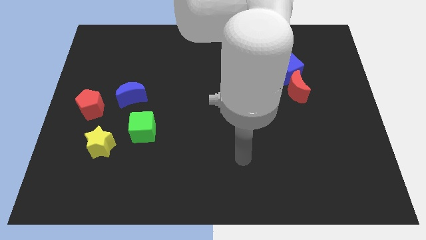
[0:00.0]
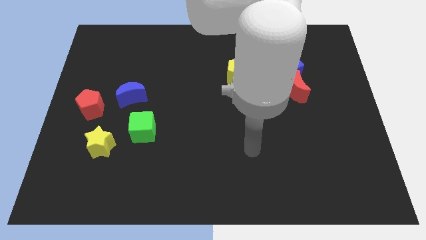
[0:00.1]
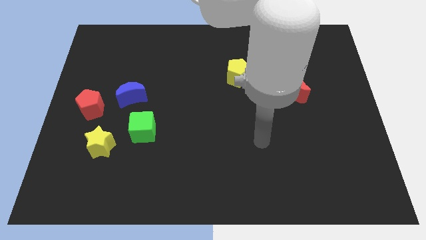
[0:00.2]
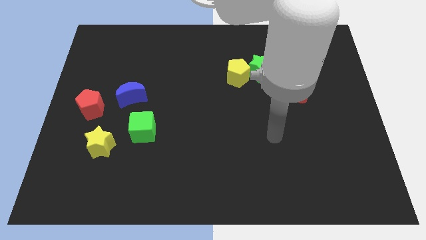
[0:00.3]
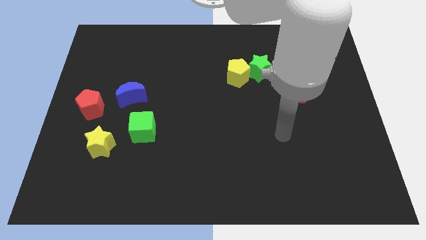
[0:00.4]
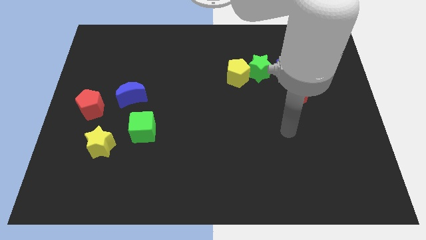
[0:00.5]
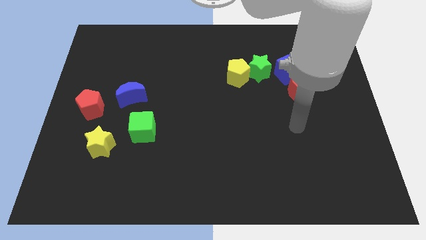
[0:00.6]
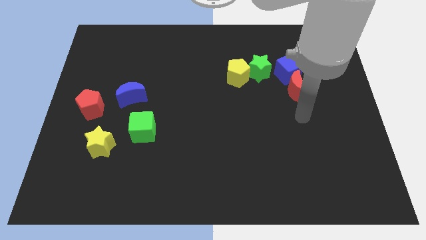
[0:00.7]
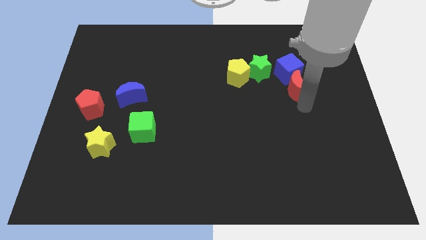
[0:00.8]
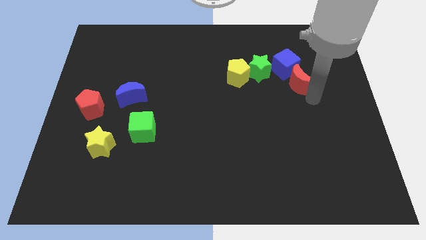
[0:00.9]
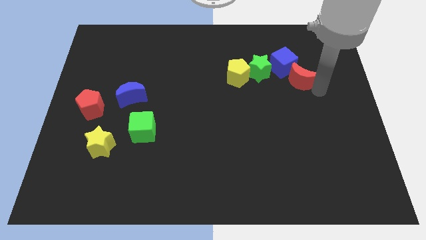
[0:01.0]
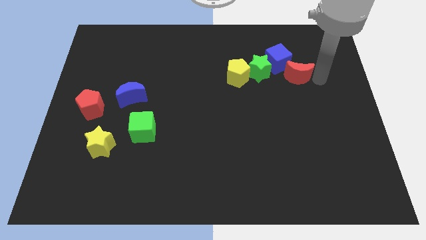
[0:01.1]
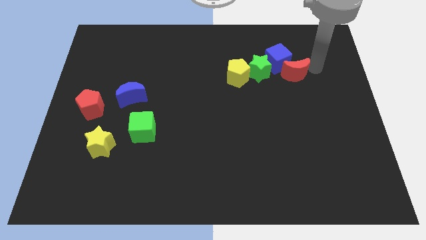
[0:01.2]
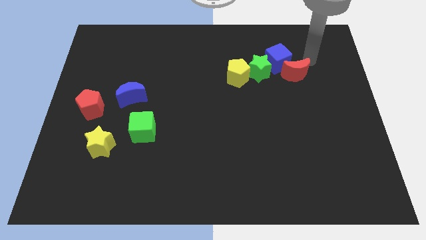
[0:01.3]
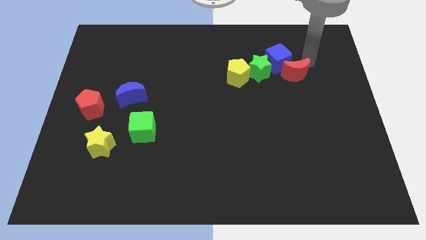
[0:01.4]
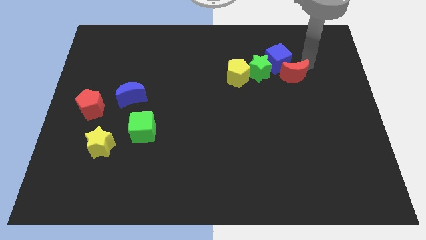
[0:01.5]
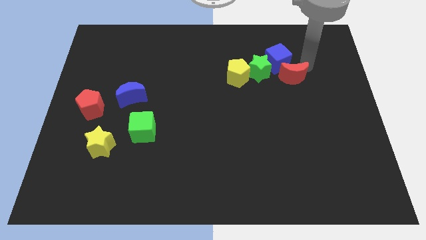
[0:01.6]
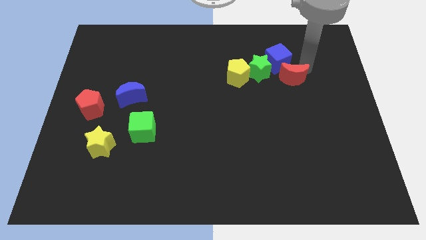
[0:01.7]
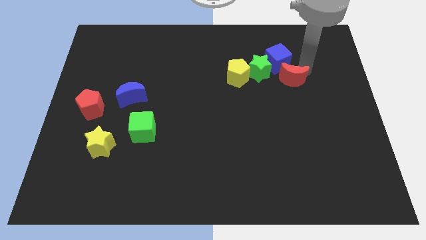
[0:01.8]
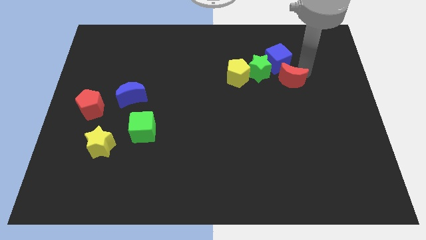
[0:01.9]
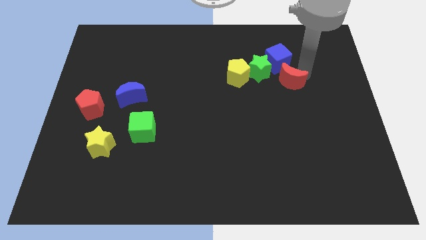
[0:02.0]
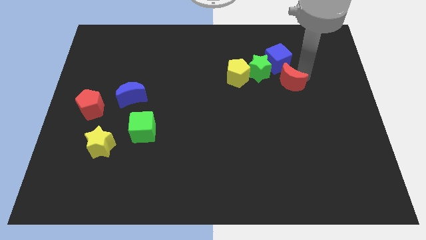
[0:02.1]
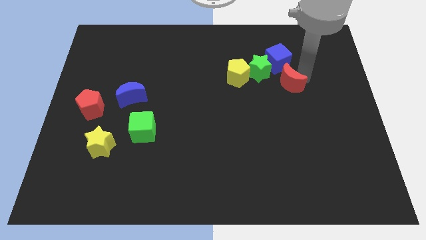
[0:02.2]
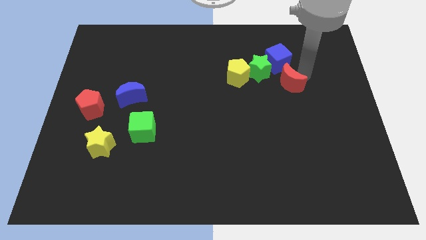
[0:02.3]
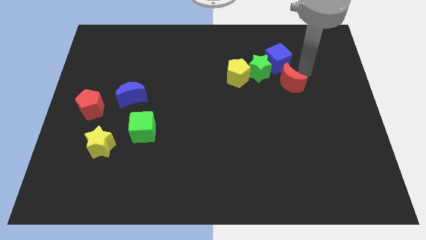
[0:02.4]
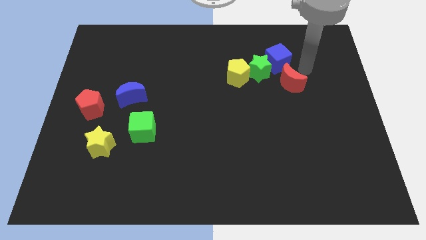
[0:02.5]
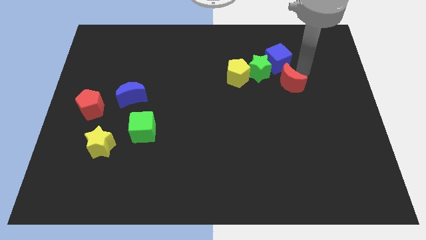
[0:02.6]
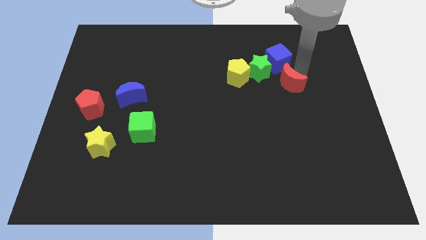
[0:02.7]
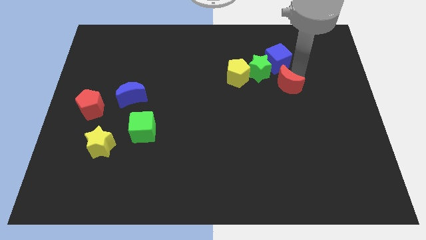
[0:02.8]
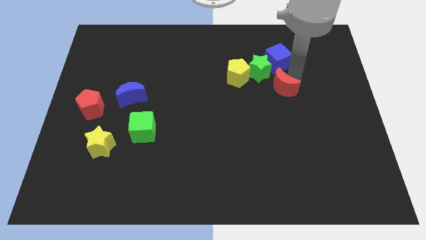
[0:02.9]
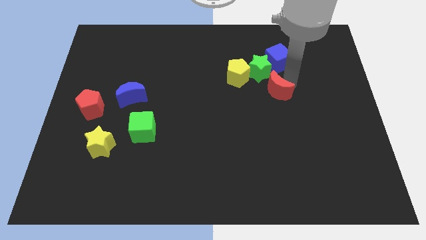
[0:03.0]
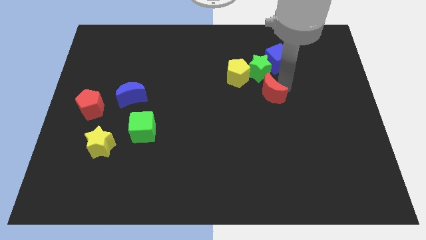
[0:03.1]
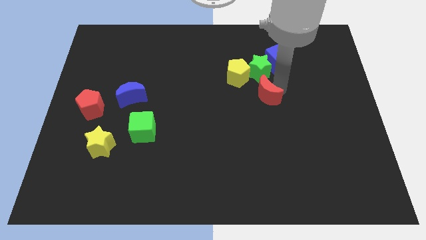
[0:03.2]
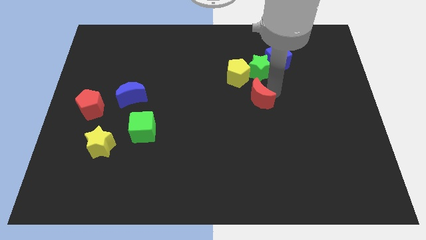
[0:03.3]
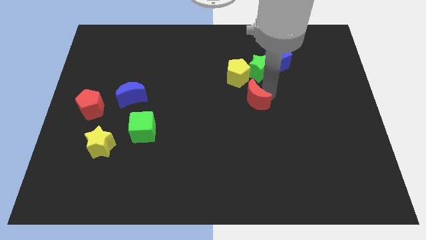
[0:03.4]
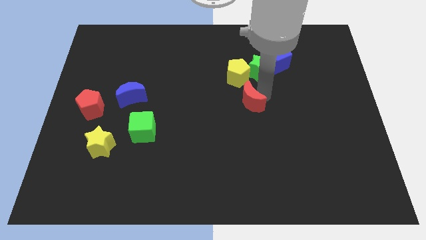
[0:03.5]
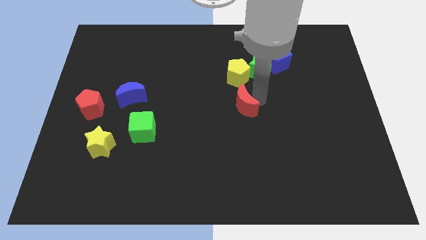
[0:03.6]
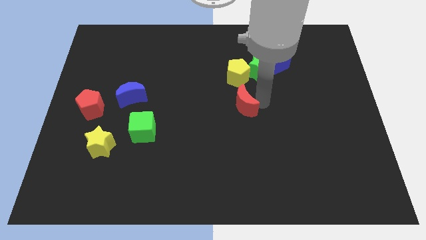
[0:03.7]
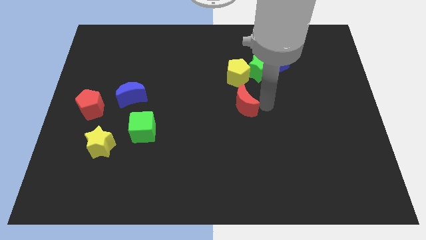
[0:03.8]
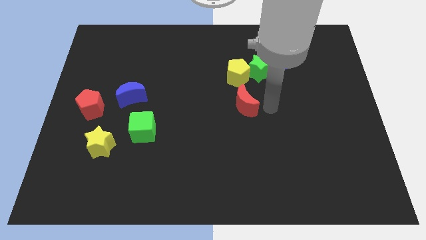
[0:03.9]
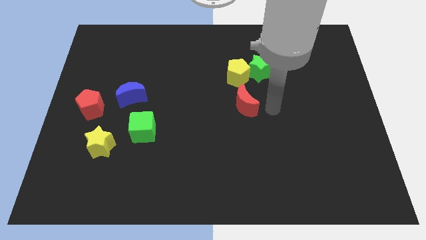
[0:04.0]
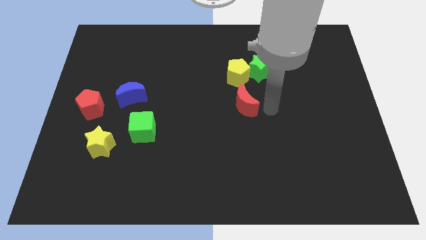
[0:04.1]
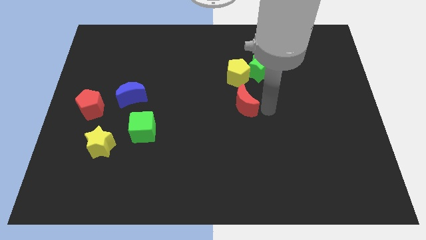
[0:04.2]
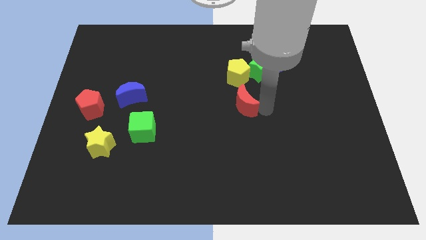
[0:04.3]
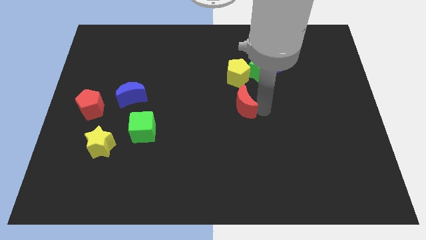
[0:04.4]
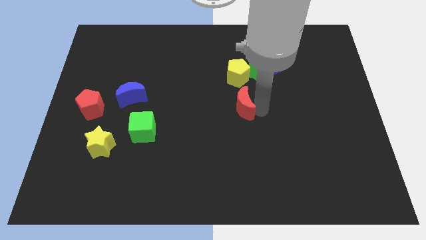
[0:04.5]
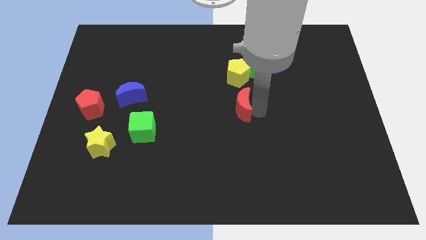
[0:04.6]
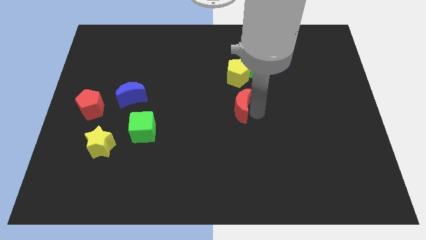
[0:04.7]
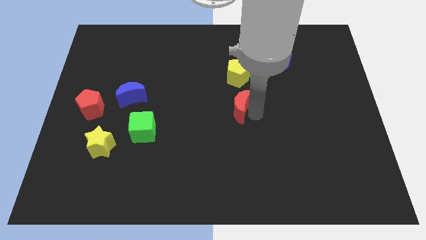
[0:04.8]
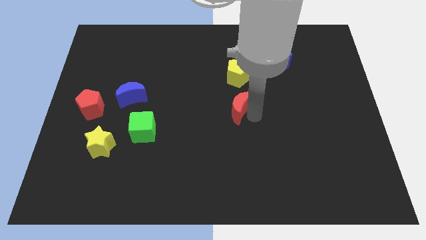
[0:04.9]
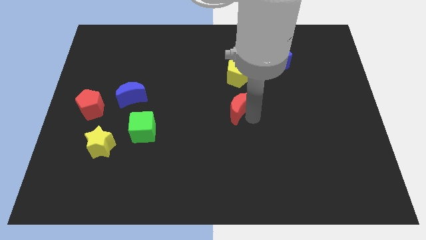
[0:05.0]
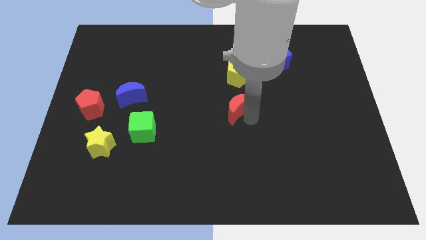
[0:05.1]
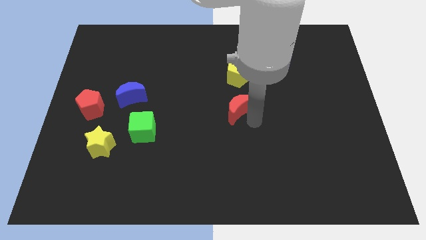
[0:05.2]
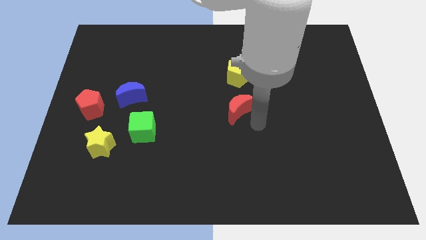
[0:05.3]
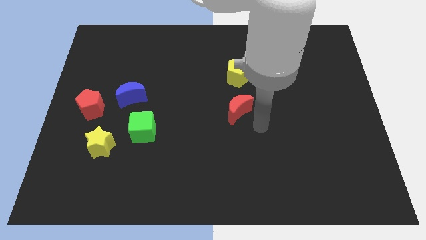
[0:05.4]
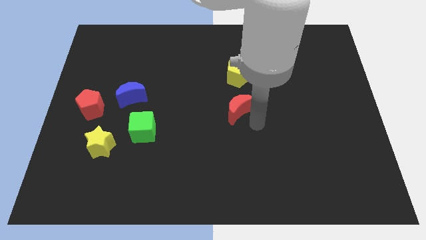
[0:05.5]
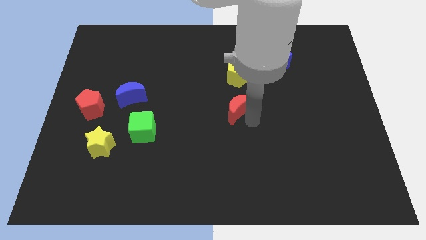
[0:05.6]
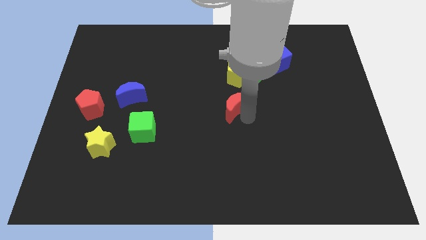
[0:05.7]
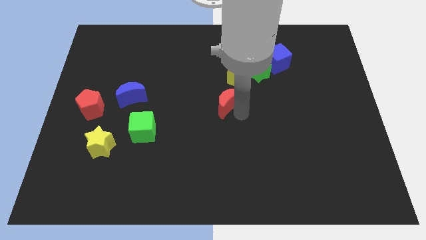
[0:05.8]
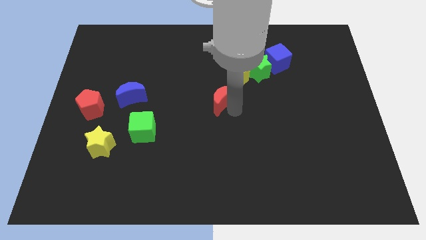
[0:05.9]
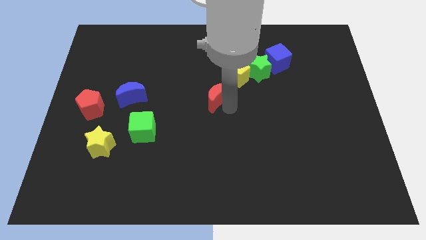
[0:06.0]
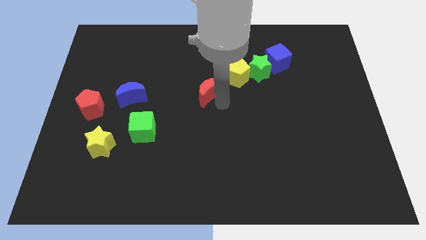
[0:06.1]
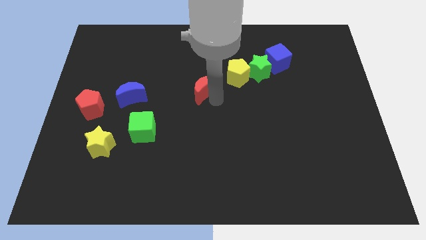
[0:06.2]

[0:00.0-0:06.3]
move the red moon left of the yellow pentagon

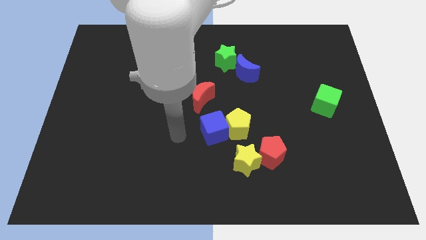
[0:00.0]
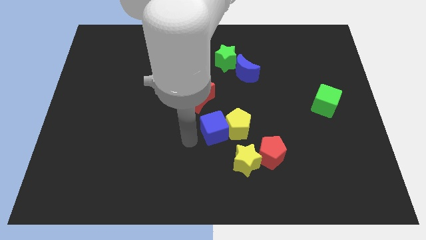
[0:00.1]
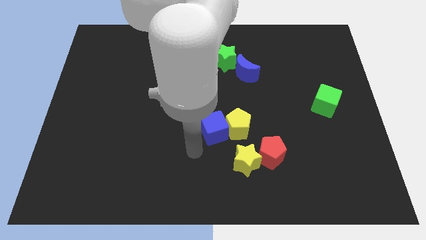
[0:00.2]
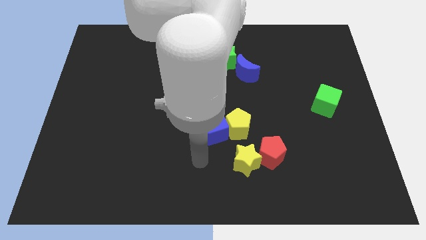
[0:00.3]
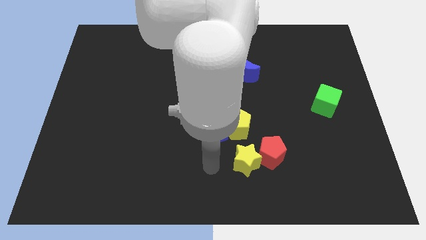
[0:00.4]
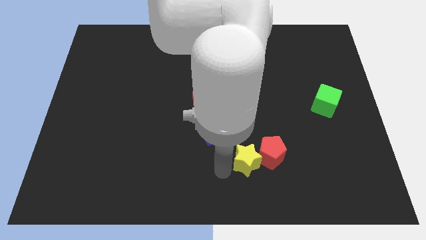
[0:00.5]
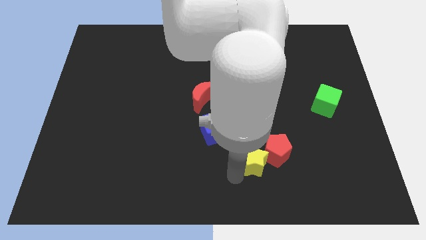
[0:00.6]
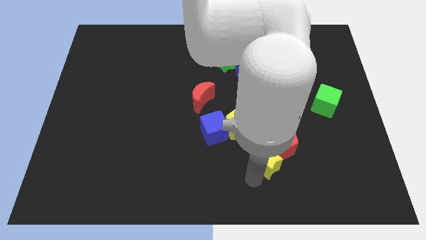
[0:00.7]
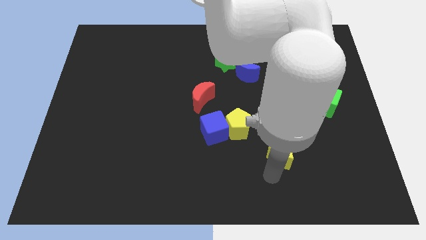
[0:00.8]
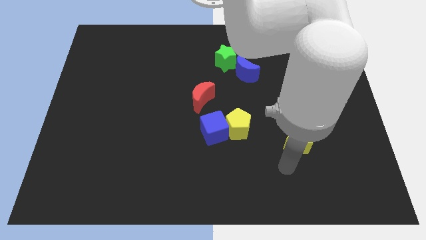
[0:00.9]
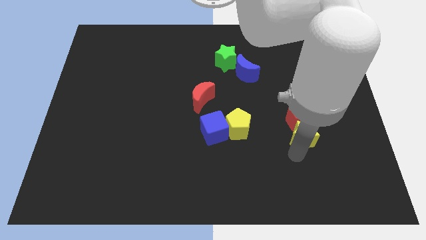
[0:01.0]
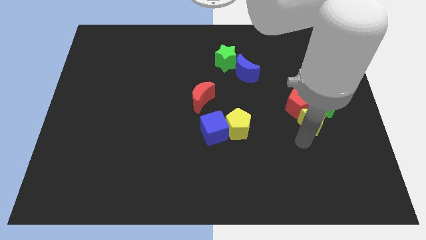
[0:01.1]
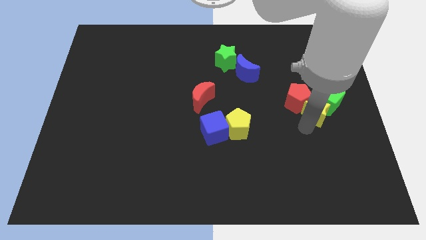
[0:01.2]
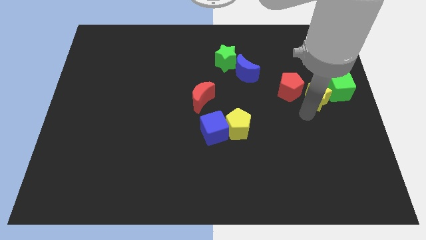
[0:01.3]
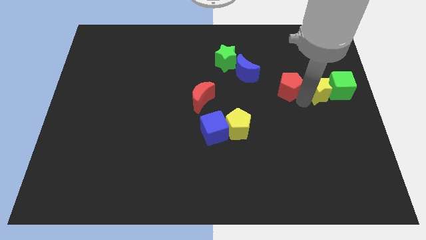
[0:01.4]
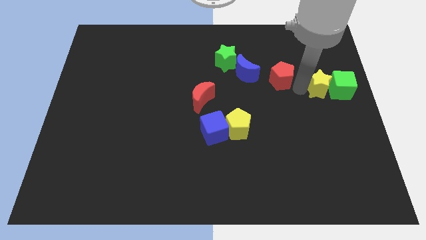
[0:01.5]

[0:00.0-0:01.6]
put the red pentagon to the right side of the blue moon

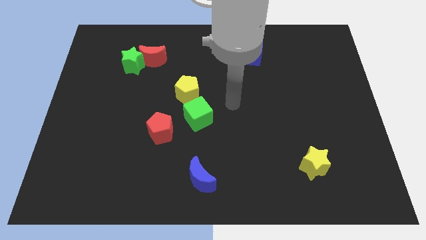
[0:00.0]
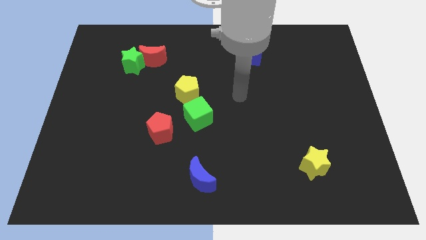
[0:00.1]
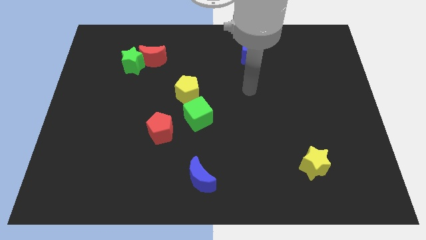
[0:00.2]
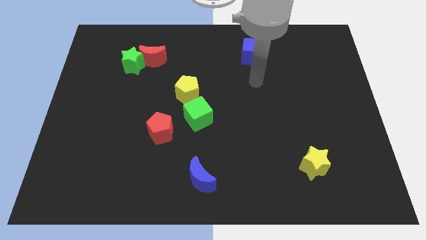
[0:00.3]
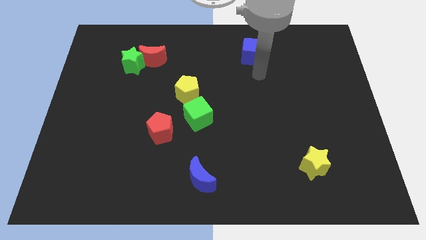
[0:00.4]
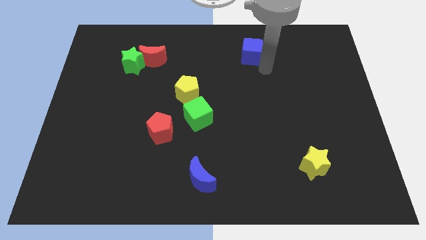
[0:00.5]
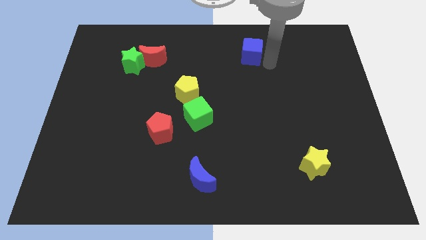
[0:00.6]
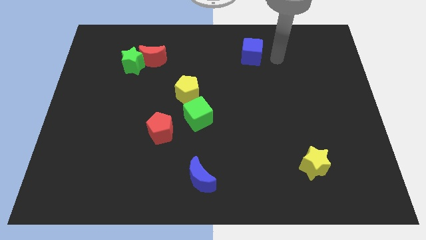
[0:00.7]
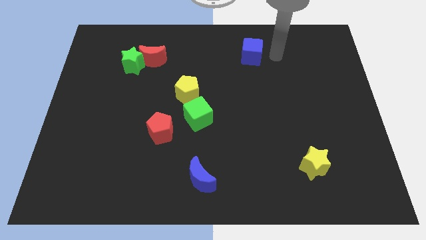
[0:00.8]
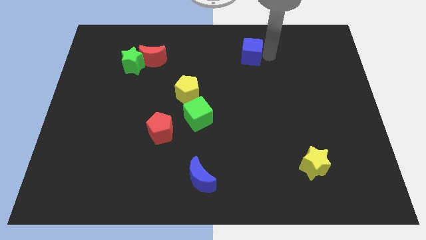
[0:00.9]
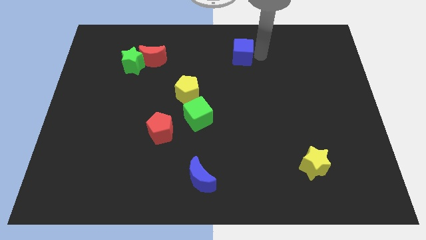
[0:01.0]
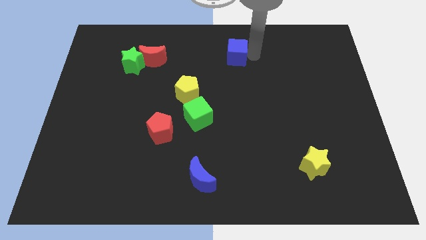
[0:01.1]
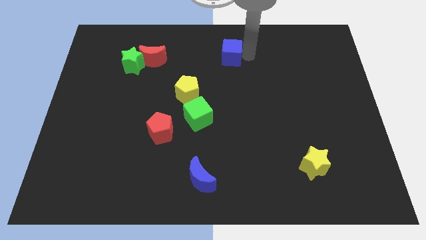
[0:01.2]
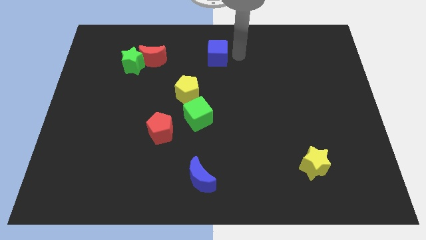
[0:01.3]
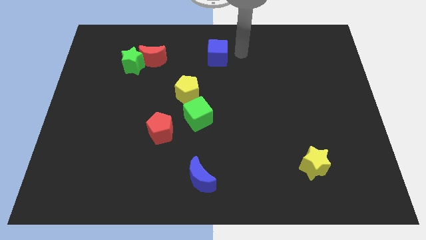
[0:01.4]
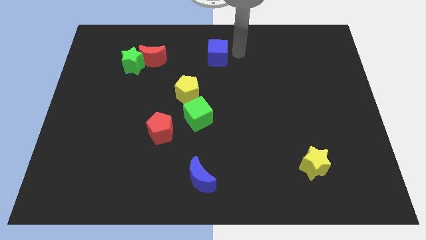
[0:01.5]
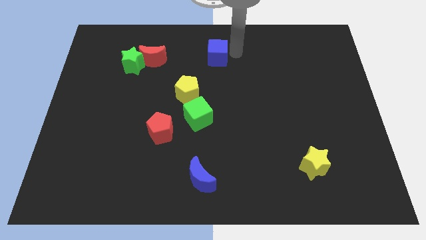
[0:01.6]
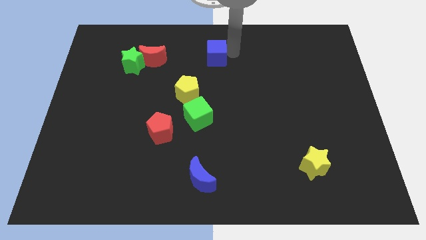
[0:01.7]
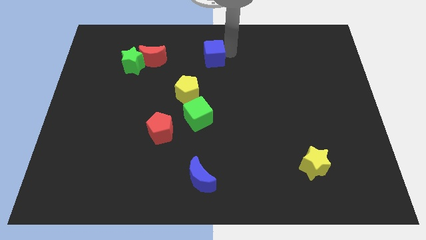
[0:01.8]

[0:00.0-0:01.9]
push the blue cube to the right side of the red moon
